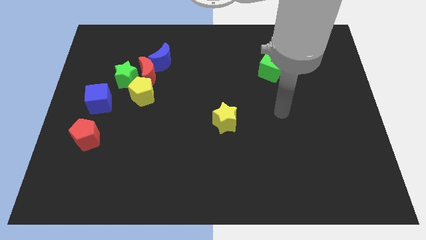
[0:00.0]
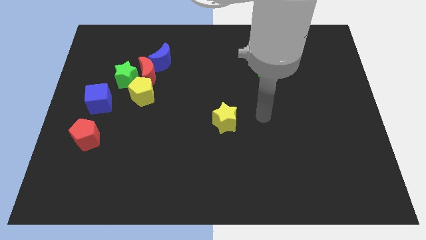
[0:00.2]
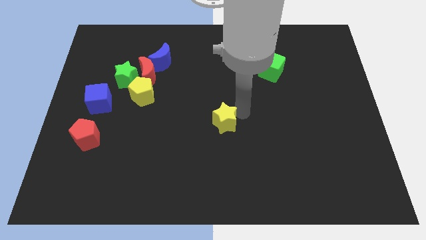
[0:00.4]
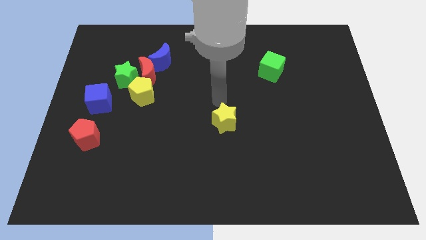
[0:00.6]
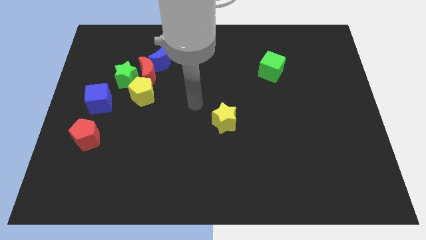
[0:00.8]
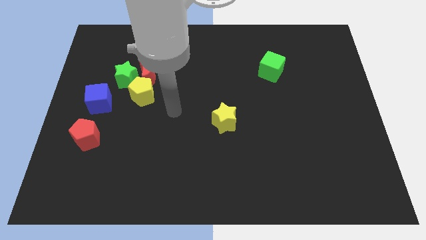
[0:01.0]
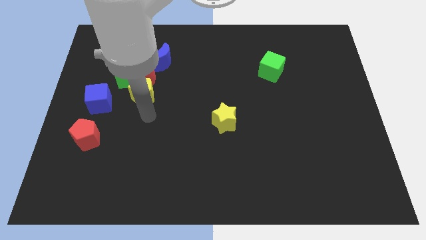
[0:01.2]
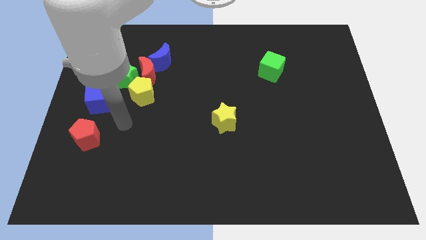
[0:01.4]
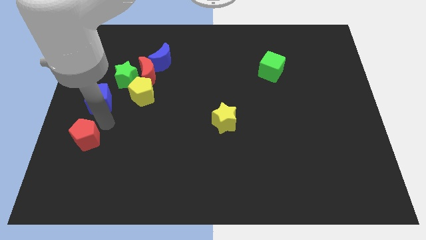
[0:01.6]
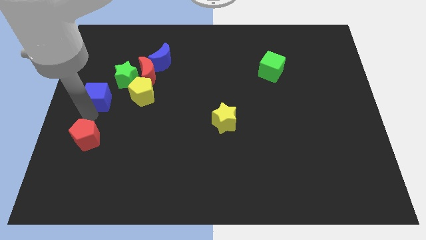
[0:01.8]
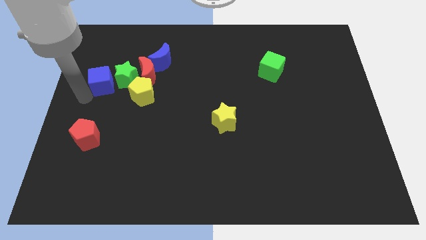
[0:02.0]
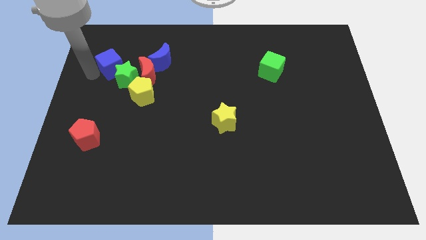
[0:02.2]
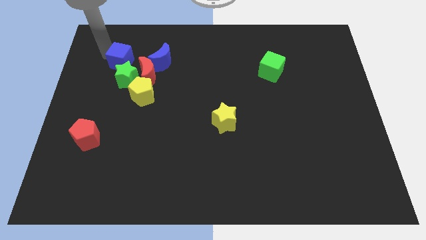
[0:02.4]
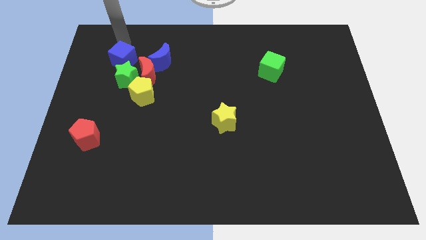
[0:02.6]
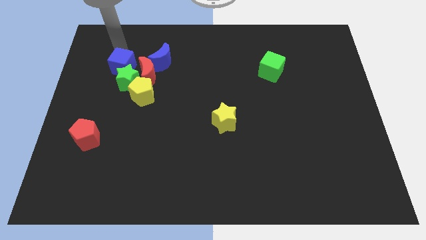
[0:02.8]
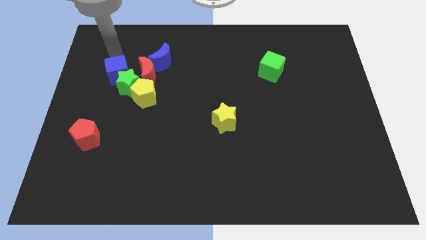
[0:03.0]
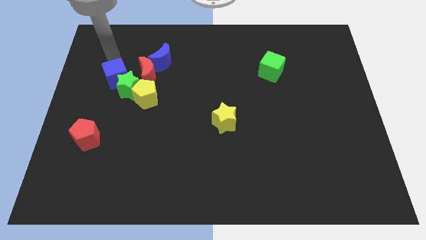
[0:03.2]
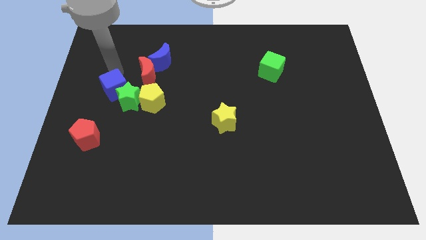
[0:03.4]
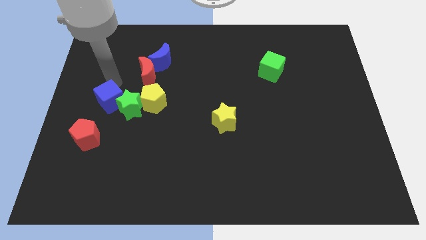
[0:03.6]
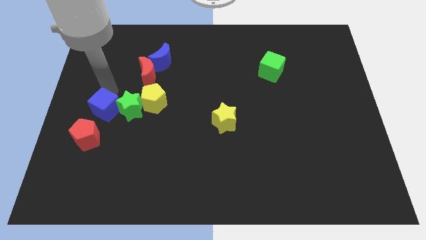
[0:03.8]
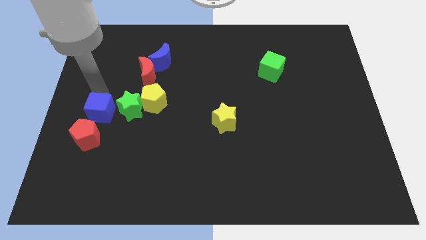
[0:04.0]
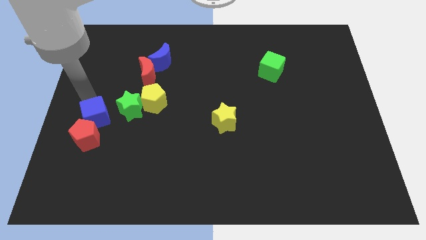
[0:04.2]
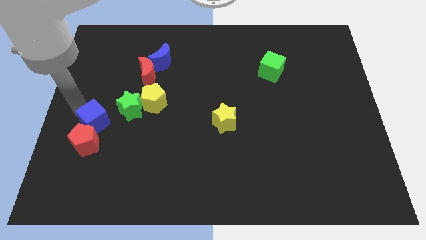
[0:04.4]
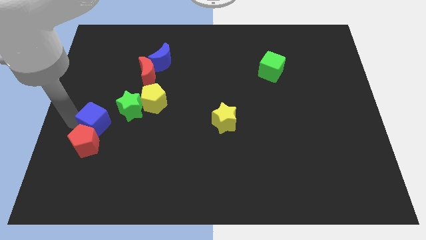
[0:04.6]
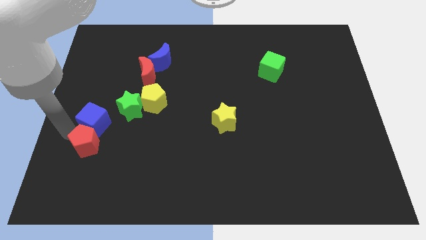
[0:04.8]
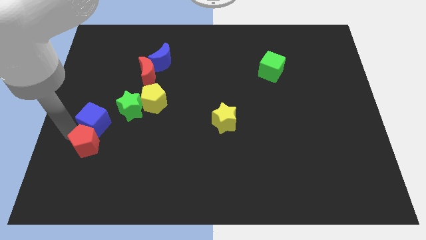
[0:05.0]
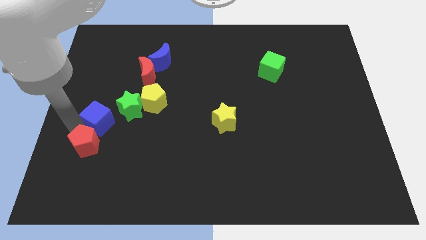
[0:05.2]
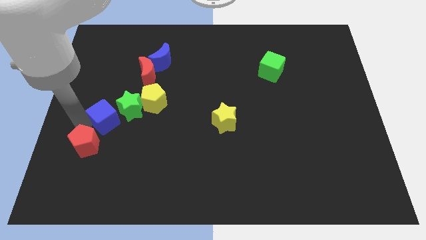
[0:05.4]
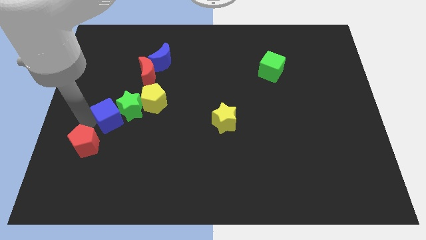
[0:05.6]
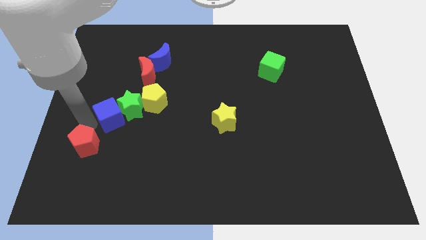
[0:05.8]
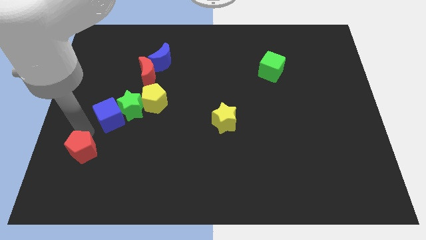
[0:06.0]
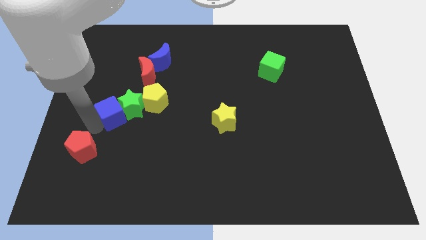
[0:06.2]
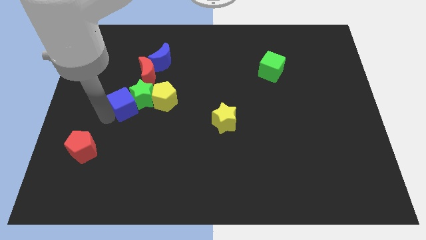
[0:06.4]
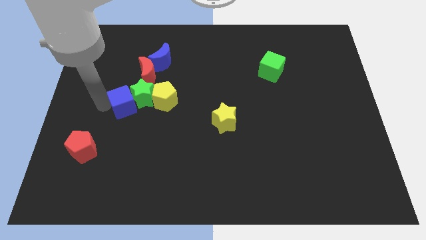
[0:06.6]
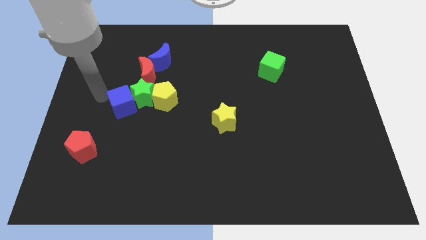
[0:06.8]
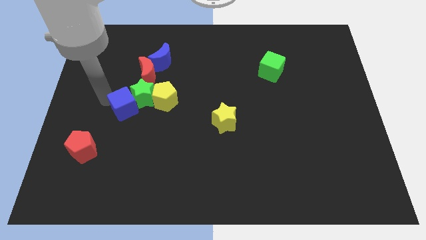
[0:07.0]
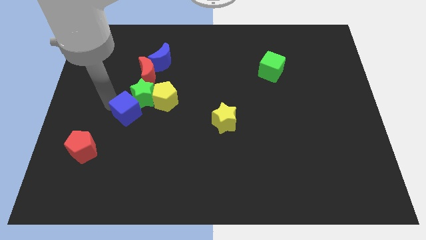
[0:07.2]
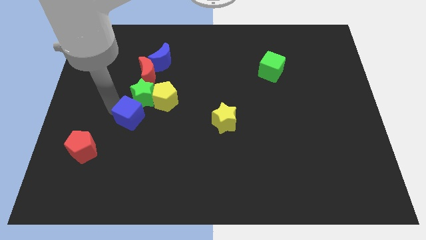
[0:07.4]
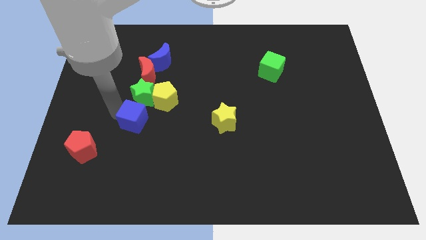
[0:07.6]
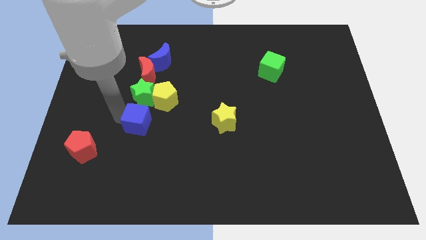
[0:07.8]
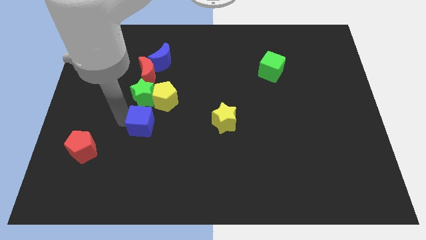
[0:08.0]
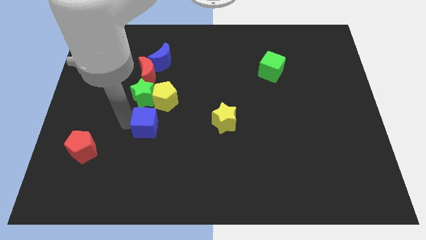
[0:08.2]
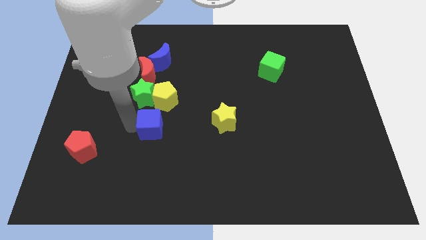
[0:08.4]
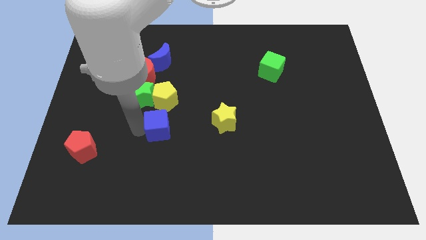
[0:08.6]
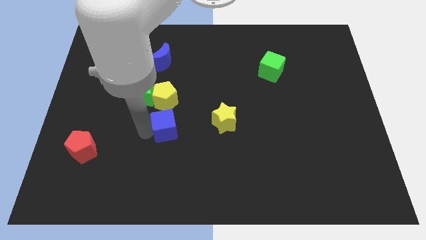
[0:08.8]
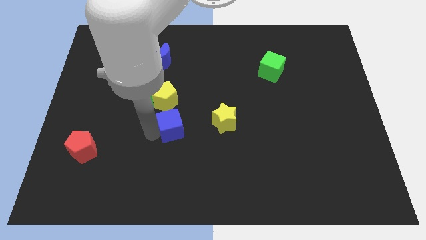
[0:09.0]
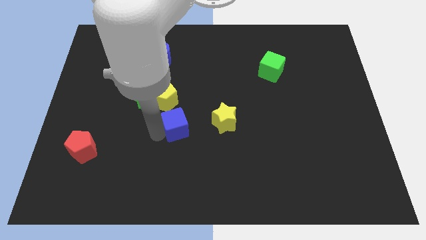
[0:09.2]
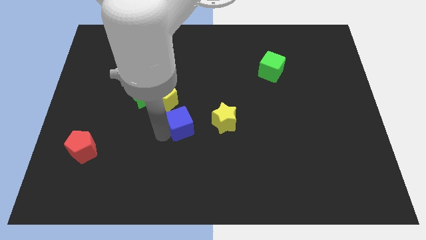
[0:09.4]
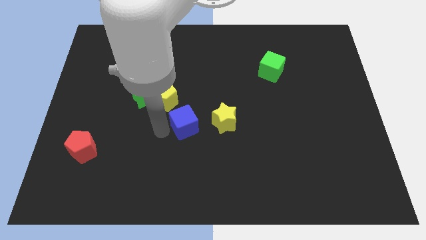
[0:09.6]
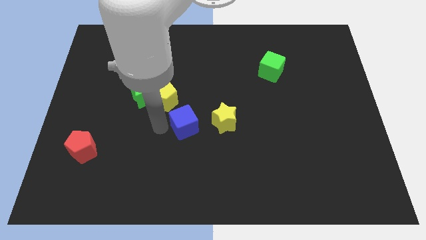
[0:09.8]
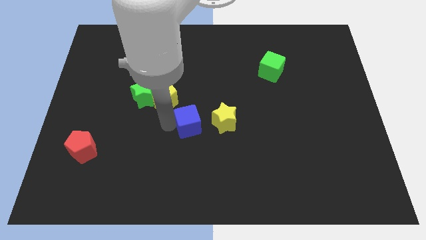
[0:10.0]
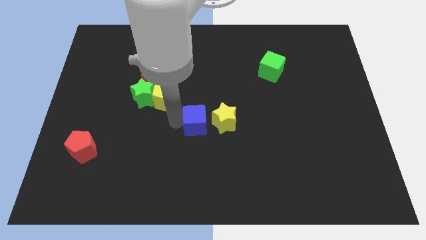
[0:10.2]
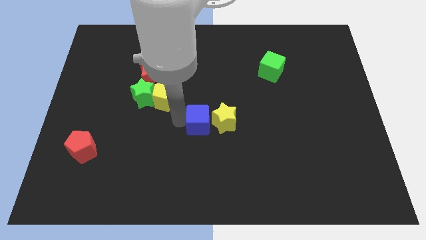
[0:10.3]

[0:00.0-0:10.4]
slide the blue cube close to the yellow star
